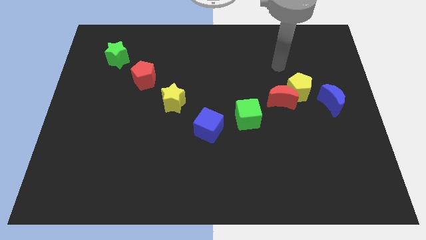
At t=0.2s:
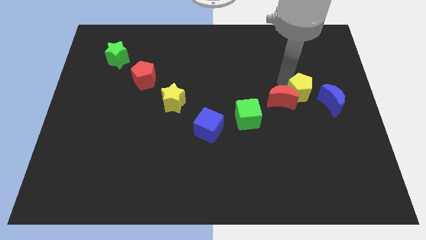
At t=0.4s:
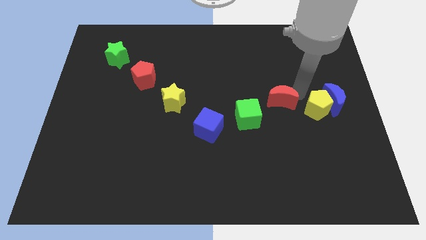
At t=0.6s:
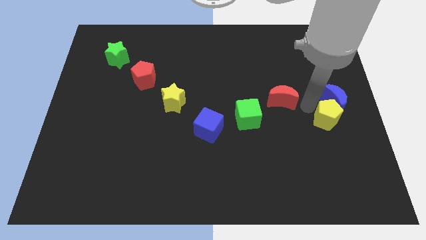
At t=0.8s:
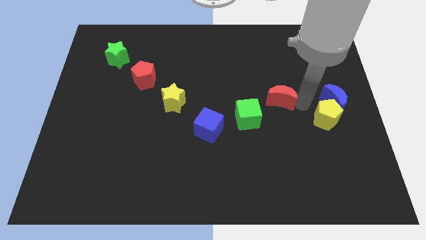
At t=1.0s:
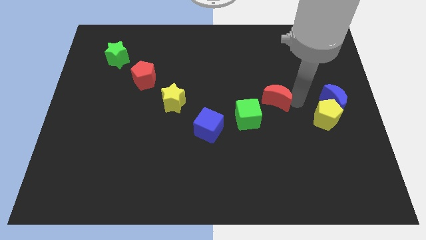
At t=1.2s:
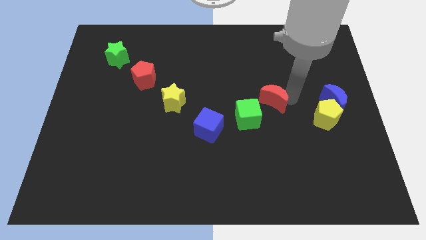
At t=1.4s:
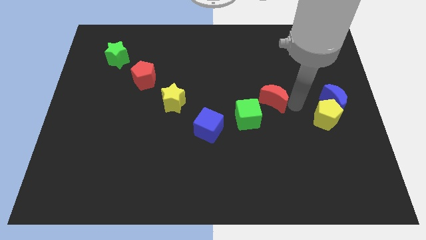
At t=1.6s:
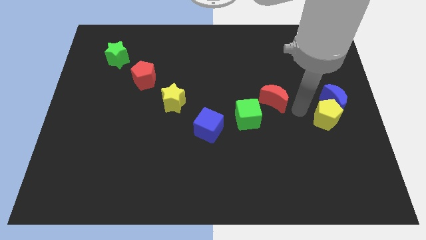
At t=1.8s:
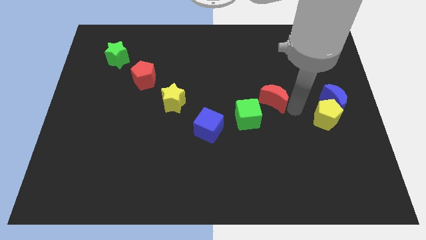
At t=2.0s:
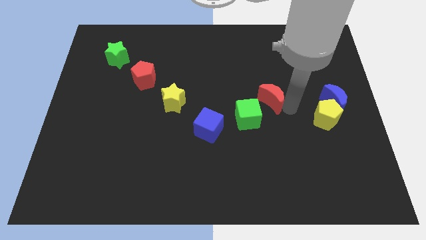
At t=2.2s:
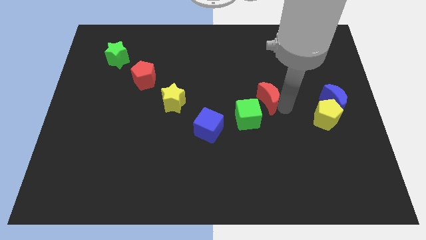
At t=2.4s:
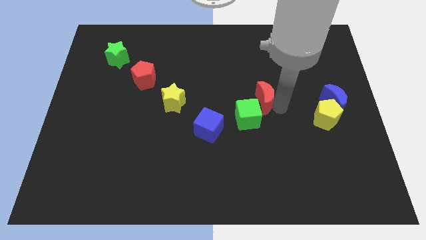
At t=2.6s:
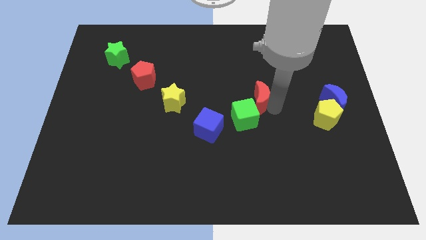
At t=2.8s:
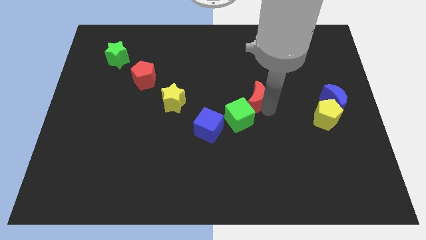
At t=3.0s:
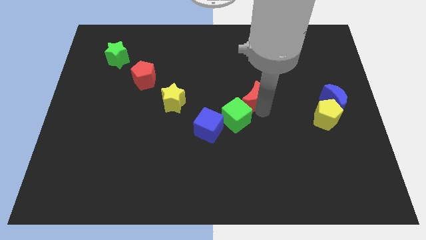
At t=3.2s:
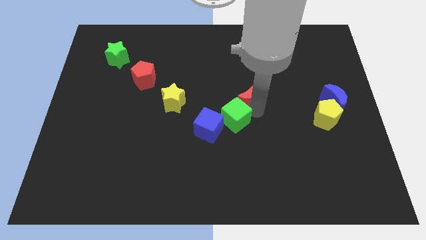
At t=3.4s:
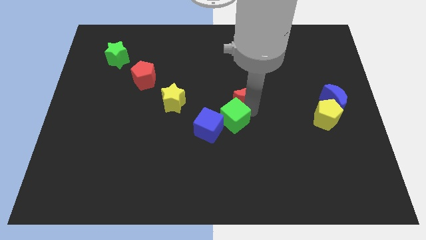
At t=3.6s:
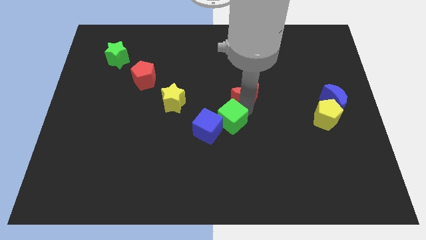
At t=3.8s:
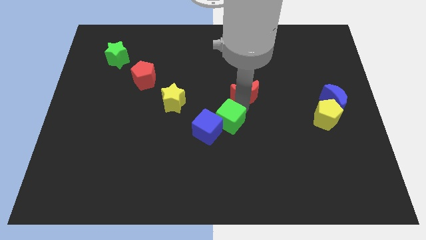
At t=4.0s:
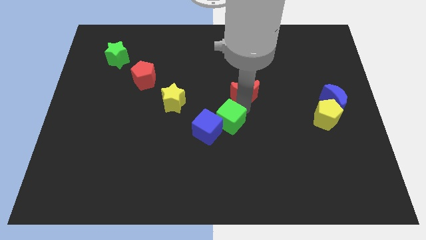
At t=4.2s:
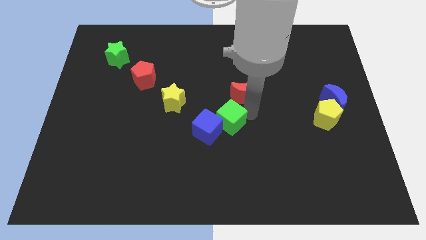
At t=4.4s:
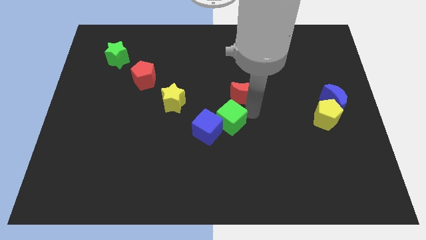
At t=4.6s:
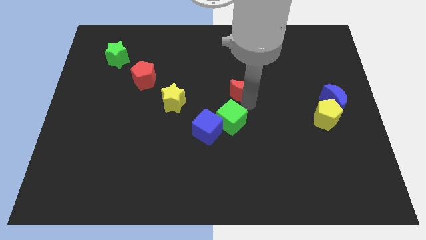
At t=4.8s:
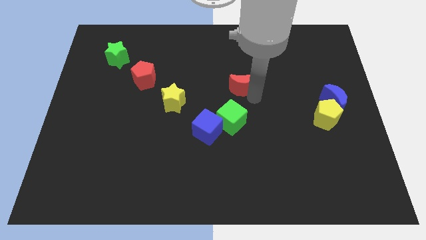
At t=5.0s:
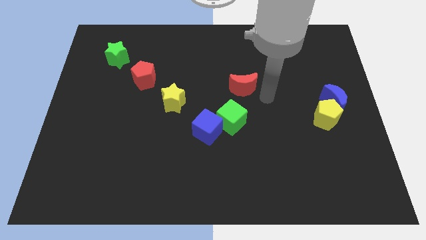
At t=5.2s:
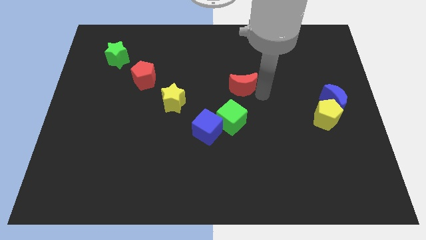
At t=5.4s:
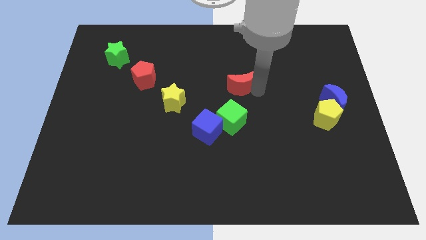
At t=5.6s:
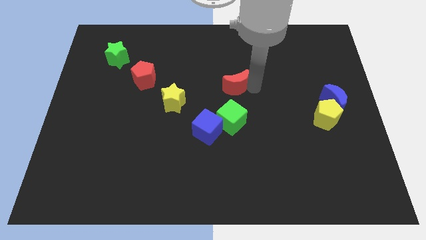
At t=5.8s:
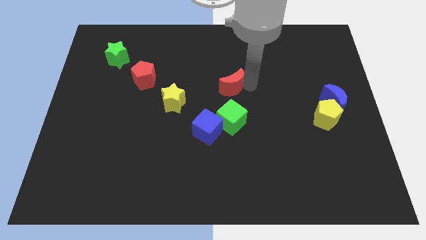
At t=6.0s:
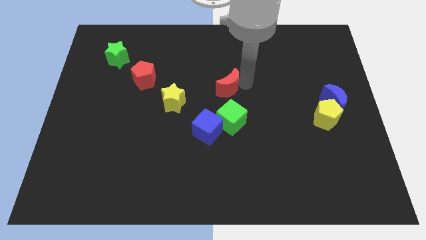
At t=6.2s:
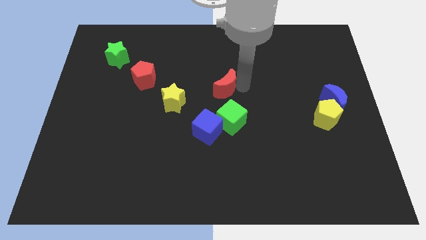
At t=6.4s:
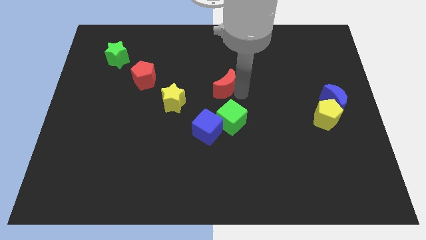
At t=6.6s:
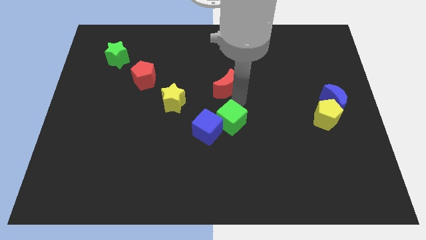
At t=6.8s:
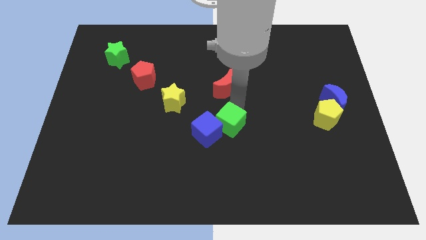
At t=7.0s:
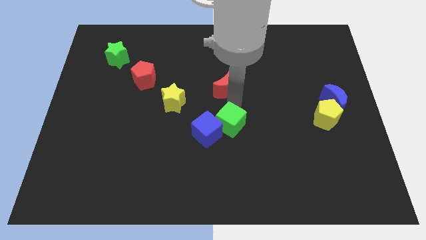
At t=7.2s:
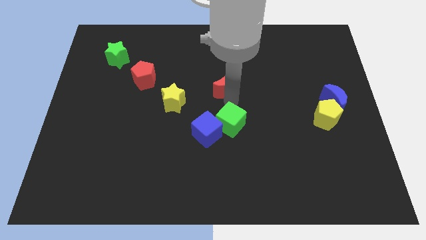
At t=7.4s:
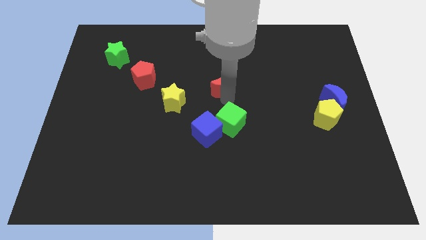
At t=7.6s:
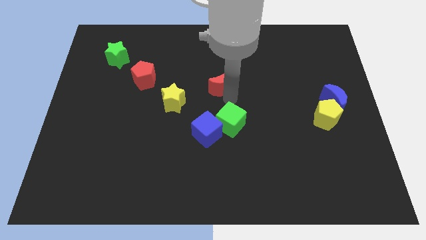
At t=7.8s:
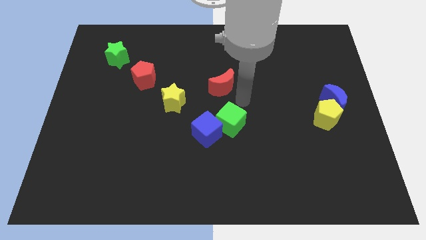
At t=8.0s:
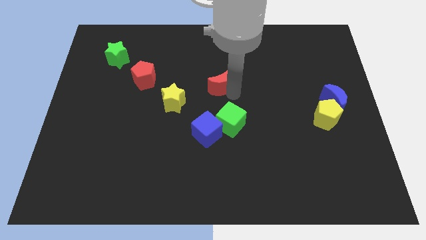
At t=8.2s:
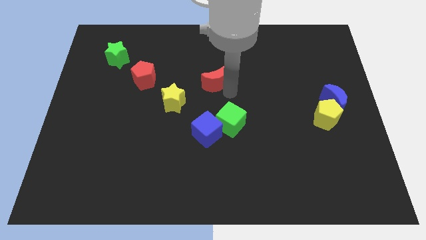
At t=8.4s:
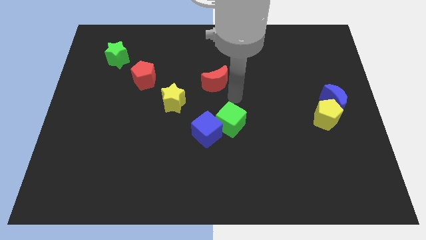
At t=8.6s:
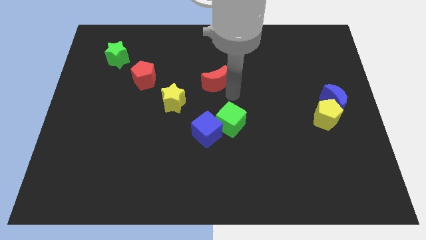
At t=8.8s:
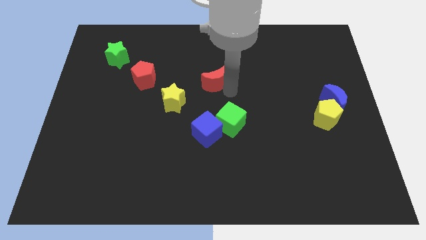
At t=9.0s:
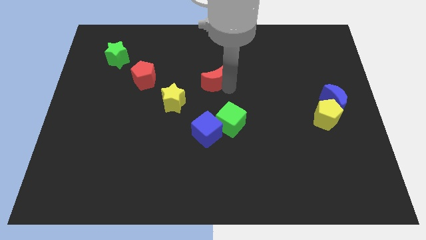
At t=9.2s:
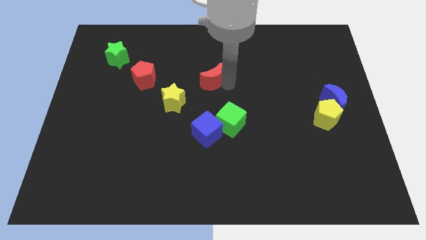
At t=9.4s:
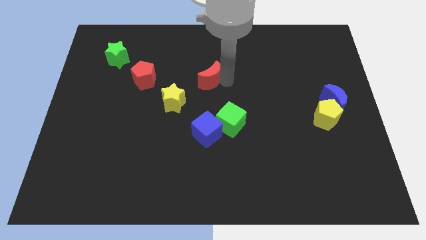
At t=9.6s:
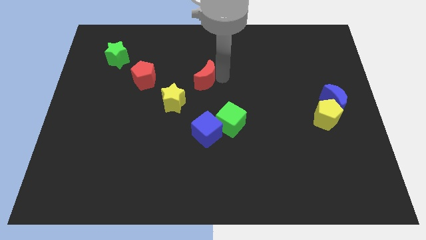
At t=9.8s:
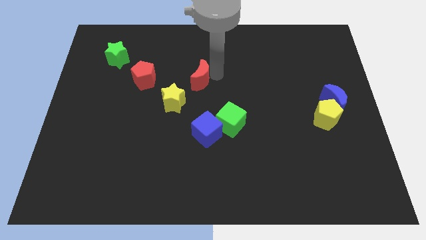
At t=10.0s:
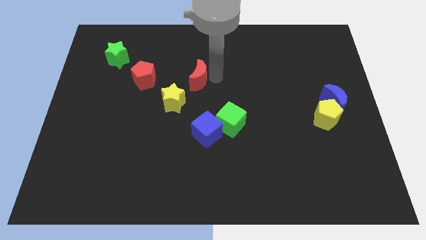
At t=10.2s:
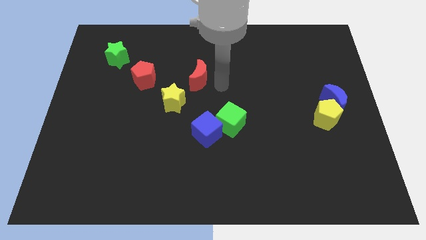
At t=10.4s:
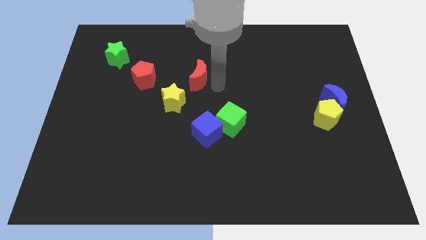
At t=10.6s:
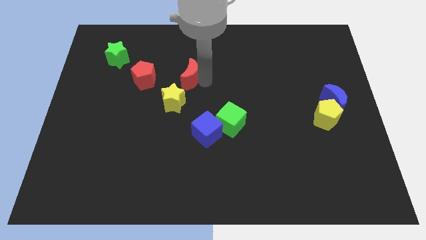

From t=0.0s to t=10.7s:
put the red moon above the yellow star

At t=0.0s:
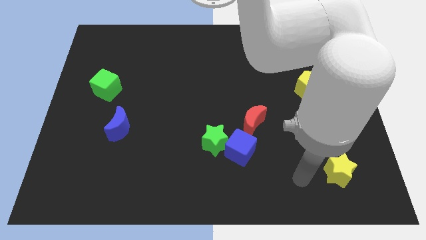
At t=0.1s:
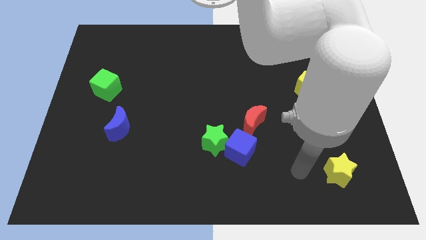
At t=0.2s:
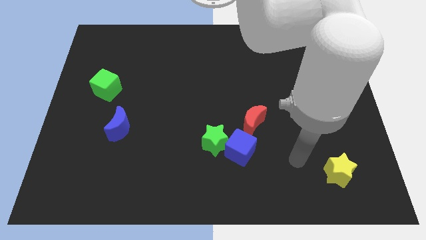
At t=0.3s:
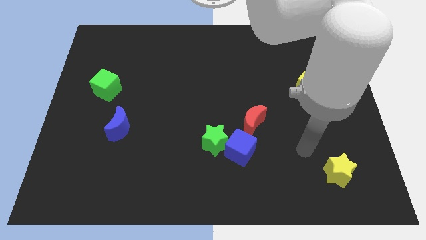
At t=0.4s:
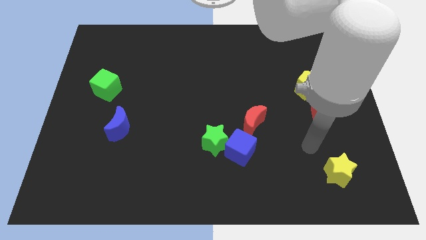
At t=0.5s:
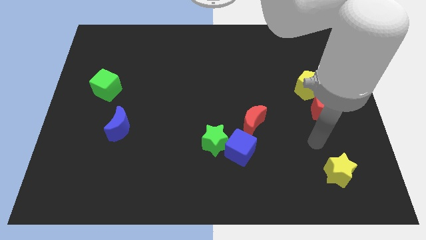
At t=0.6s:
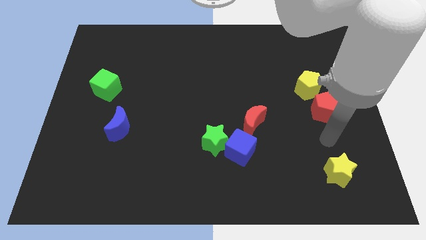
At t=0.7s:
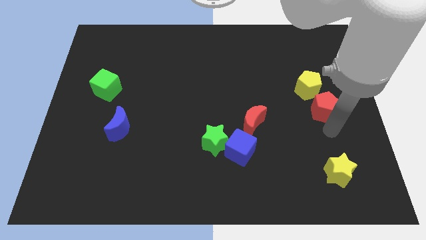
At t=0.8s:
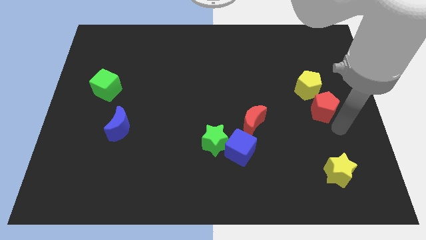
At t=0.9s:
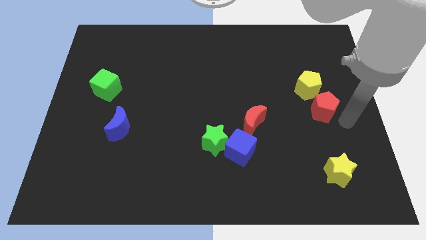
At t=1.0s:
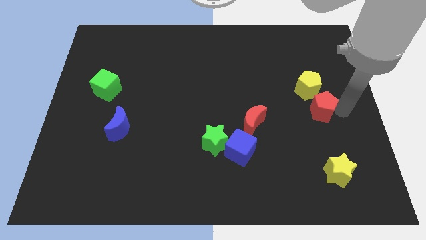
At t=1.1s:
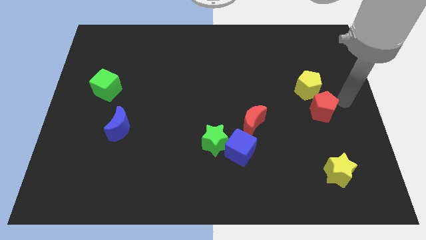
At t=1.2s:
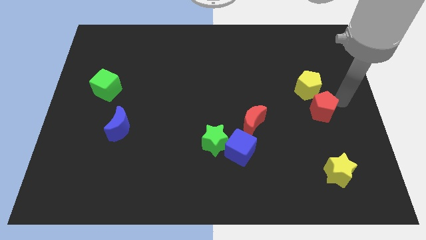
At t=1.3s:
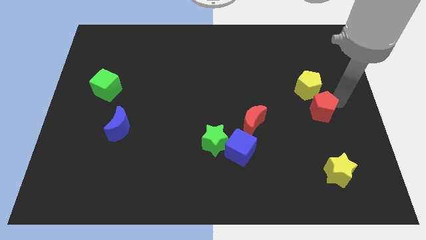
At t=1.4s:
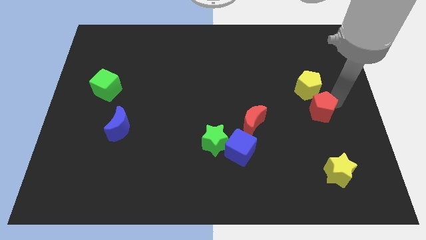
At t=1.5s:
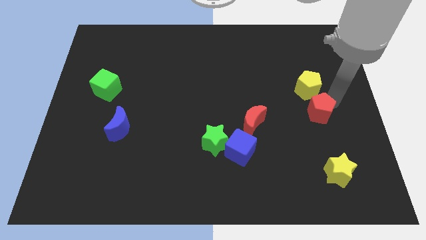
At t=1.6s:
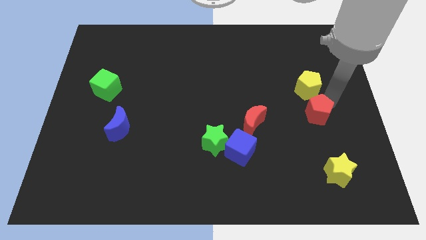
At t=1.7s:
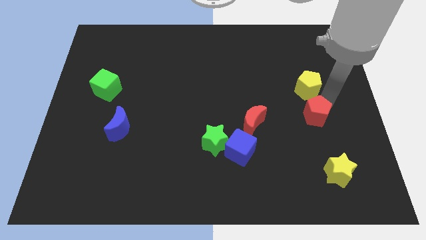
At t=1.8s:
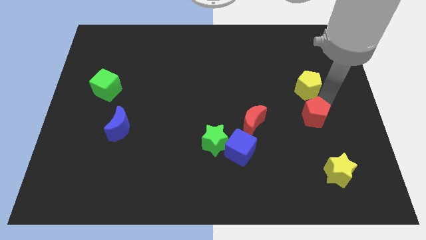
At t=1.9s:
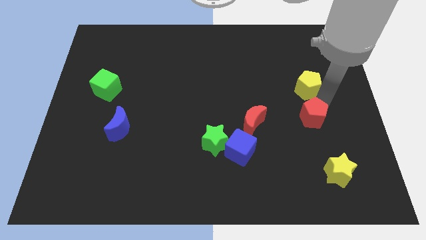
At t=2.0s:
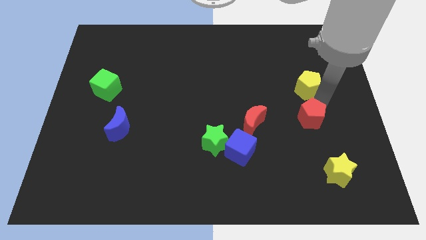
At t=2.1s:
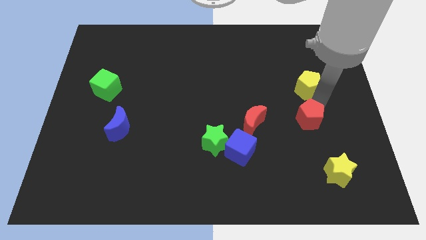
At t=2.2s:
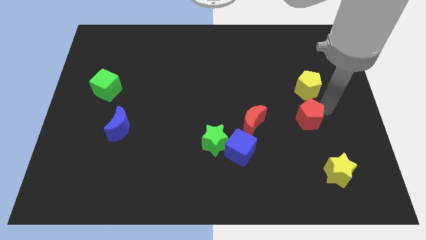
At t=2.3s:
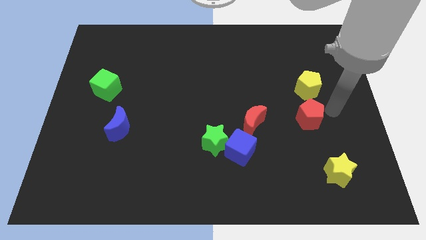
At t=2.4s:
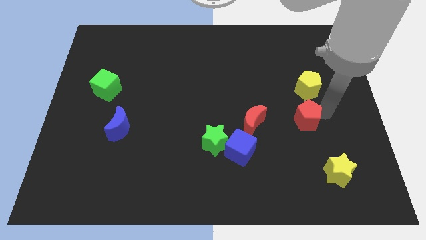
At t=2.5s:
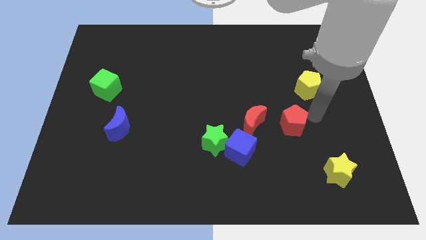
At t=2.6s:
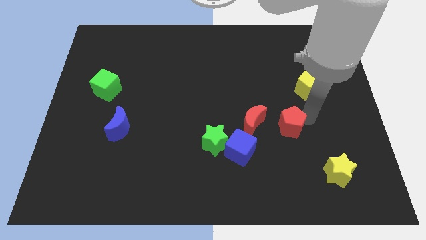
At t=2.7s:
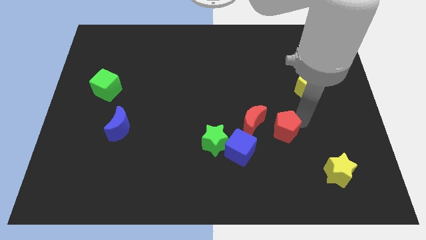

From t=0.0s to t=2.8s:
slide the red pentagon to the top right of the blue cube
